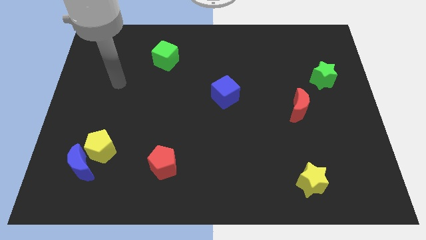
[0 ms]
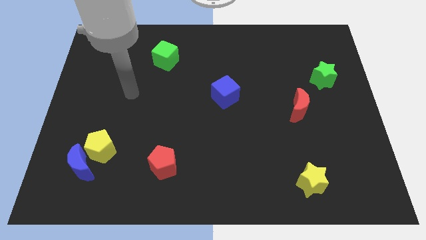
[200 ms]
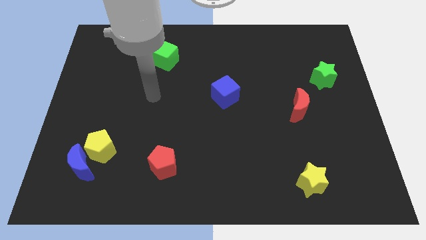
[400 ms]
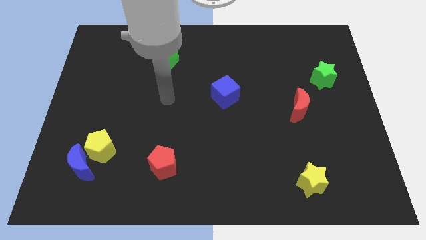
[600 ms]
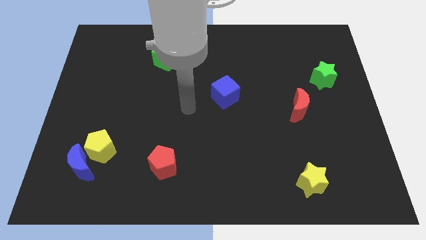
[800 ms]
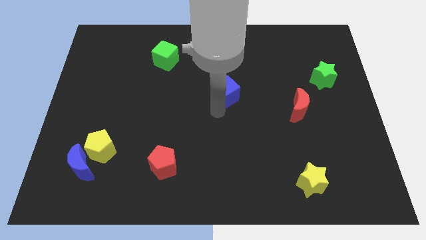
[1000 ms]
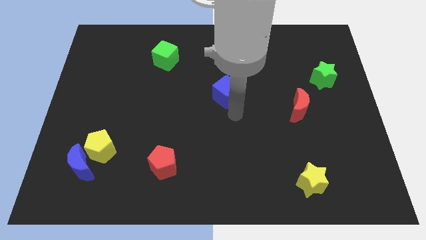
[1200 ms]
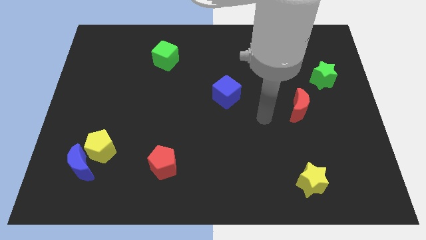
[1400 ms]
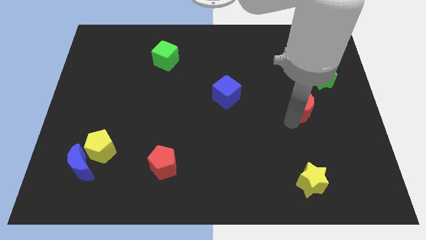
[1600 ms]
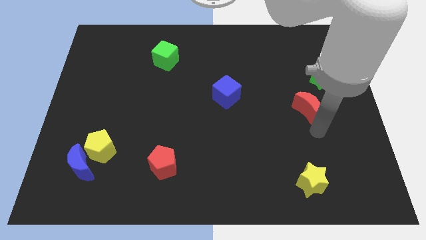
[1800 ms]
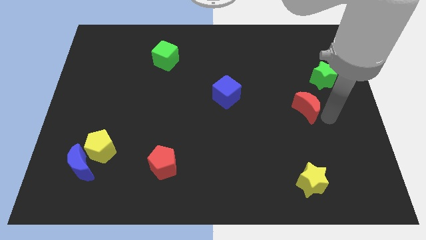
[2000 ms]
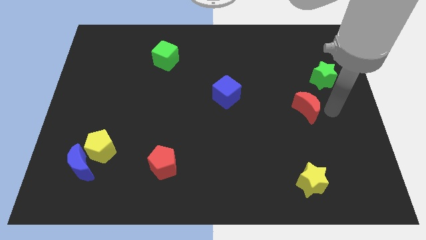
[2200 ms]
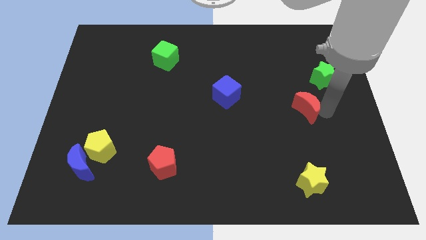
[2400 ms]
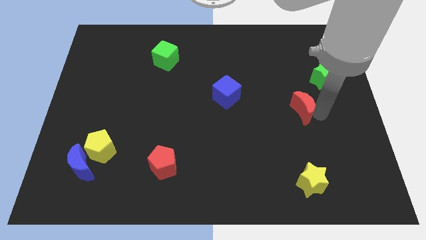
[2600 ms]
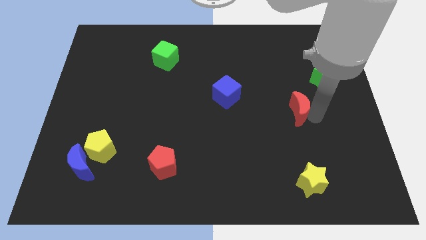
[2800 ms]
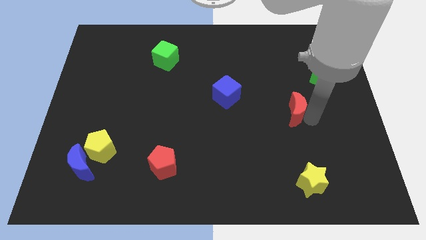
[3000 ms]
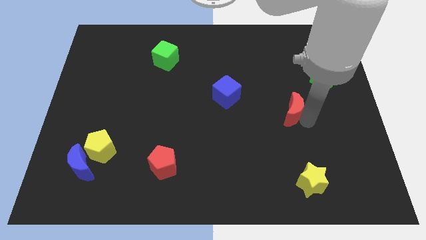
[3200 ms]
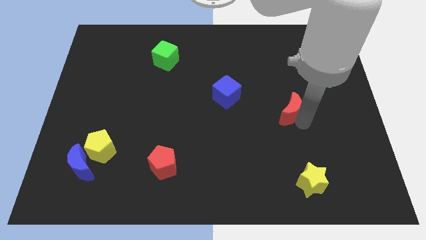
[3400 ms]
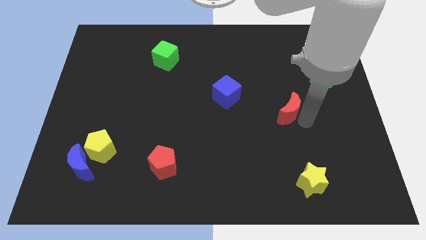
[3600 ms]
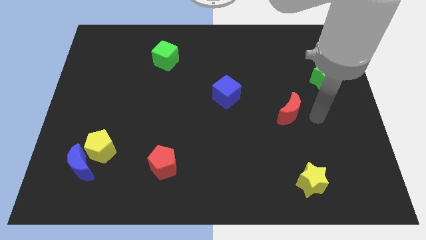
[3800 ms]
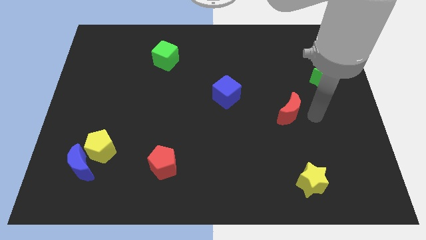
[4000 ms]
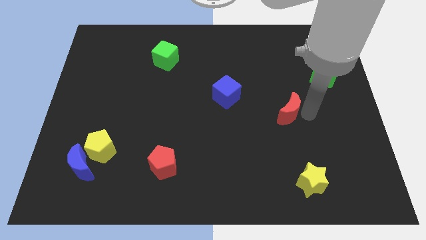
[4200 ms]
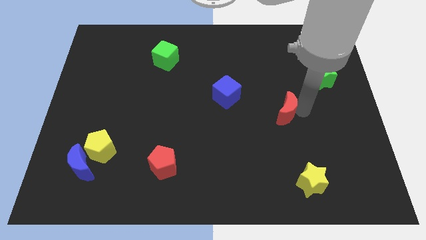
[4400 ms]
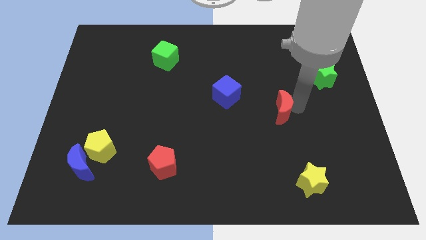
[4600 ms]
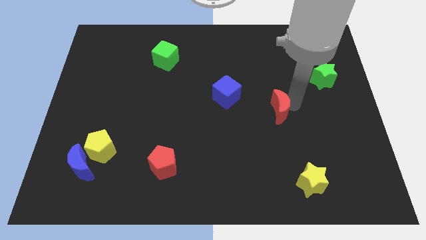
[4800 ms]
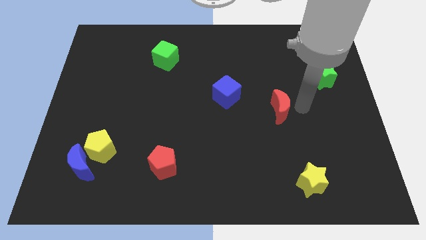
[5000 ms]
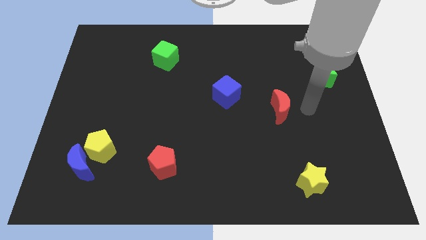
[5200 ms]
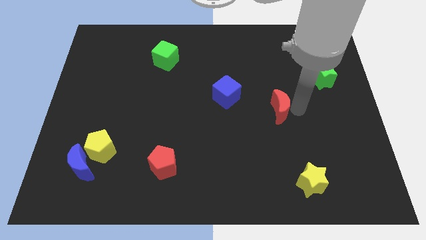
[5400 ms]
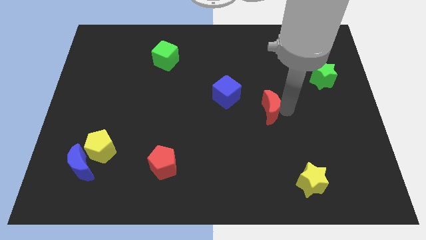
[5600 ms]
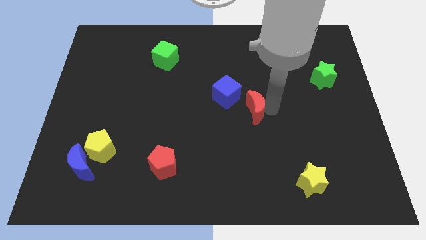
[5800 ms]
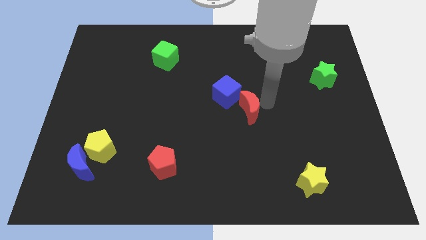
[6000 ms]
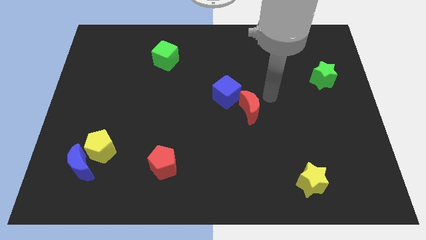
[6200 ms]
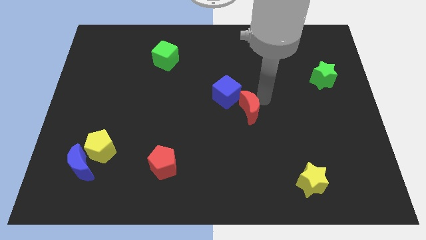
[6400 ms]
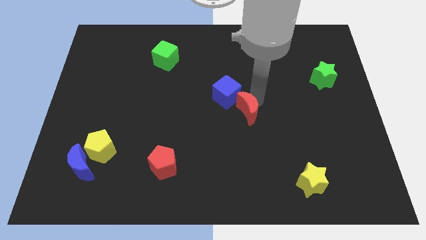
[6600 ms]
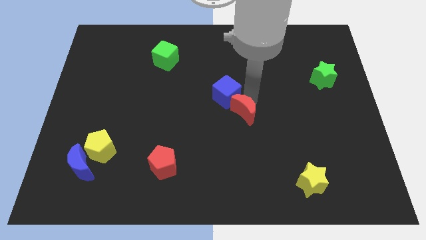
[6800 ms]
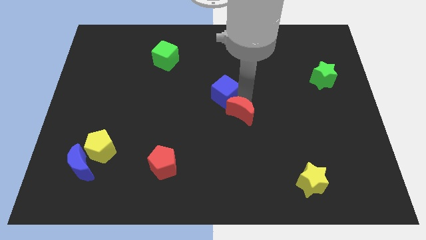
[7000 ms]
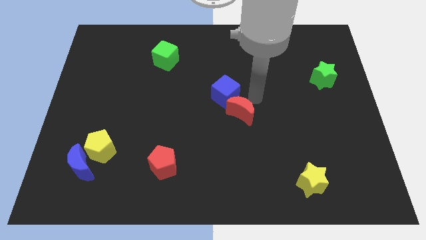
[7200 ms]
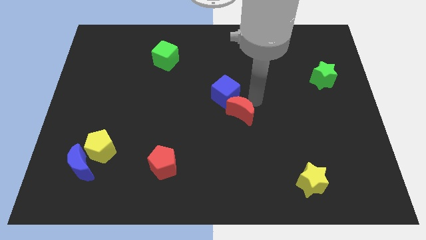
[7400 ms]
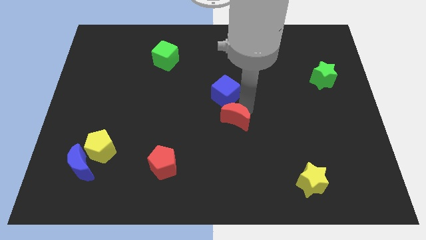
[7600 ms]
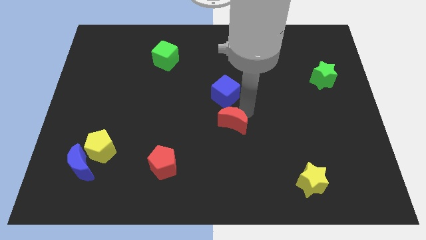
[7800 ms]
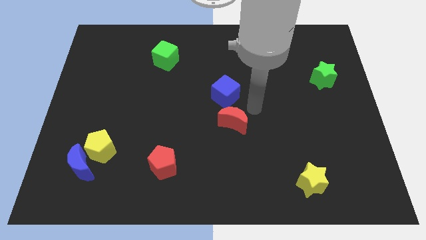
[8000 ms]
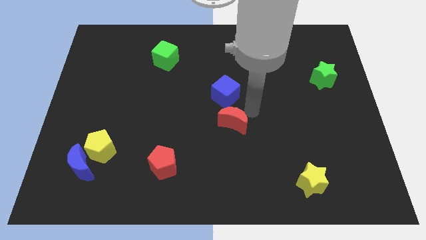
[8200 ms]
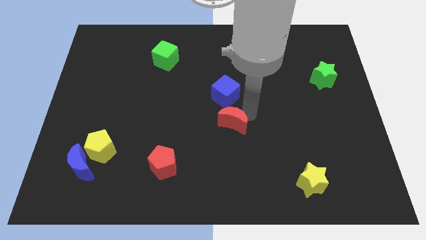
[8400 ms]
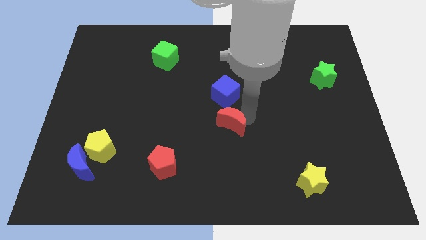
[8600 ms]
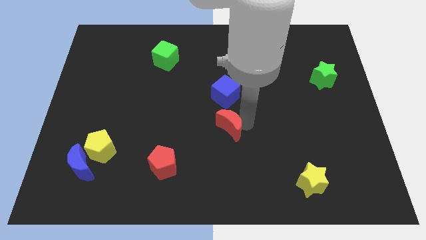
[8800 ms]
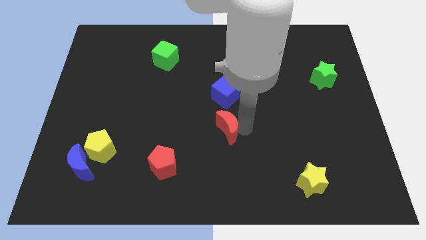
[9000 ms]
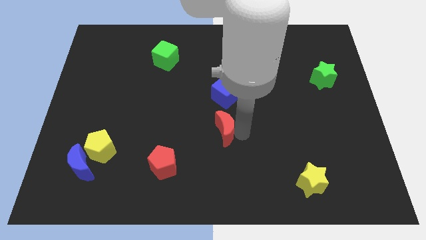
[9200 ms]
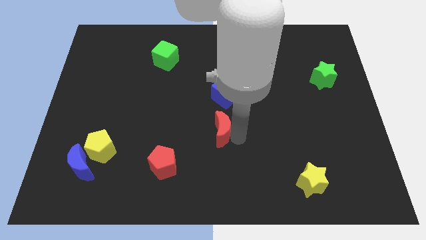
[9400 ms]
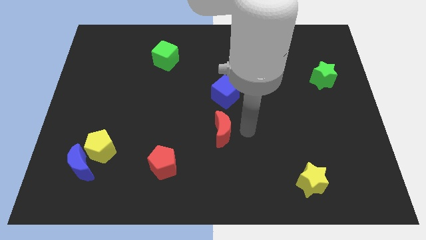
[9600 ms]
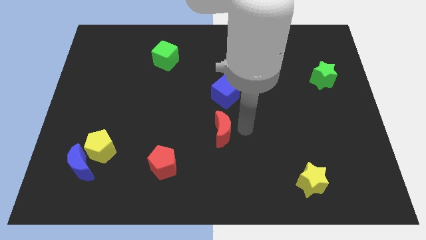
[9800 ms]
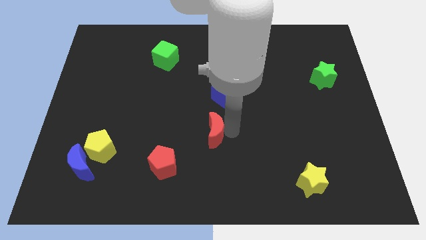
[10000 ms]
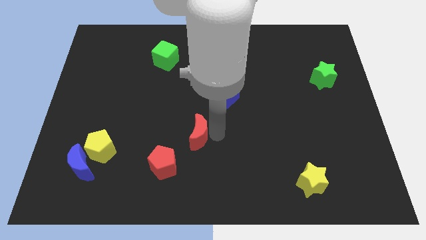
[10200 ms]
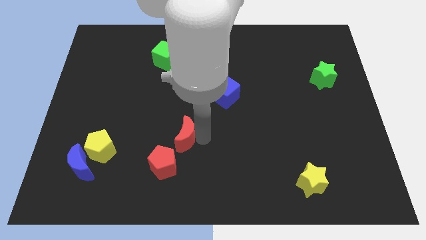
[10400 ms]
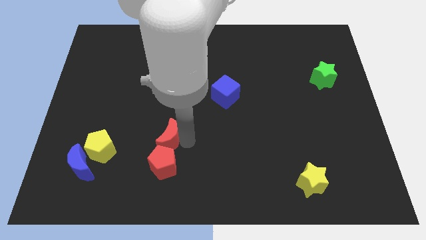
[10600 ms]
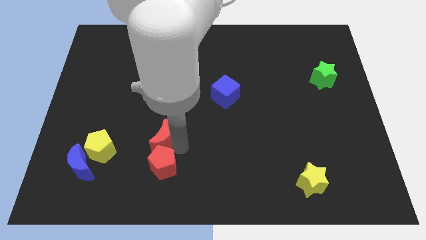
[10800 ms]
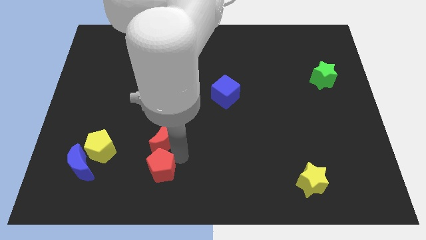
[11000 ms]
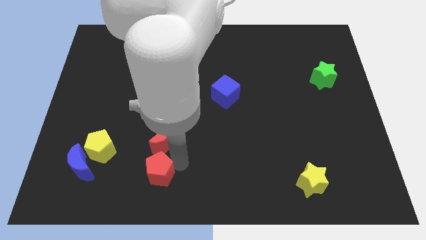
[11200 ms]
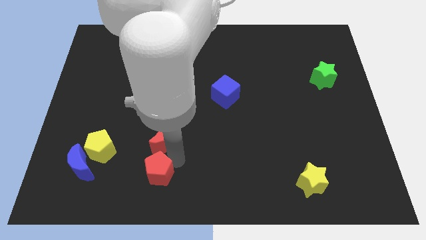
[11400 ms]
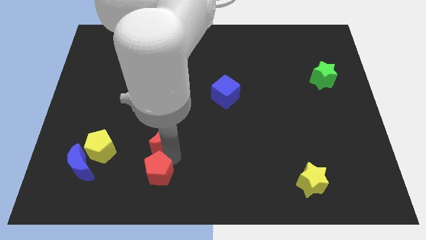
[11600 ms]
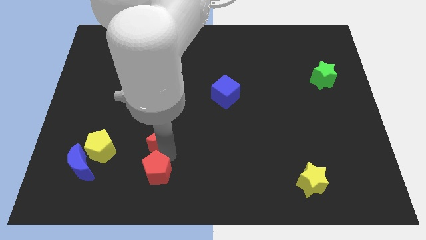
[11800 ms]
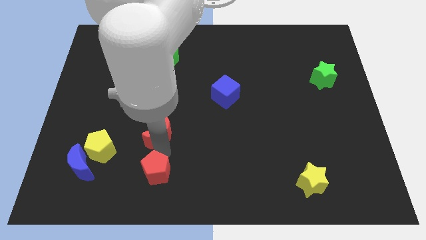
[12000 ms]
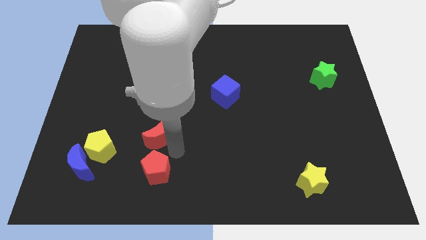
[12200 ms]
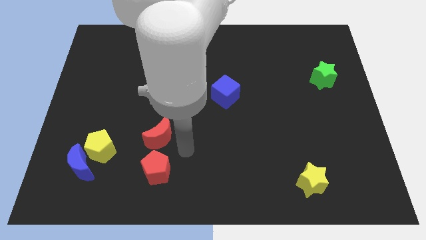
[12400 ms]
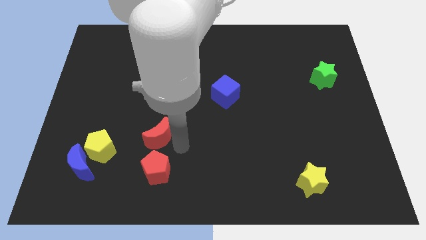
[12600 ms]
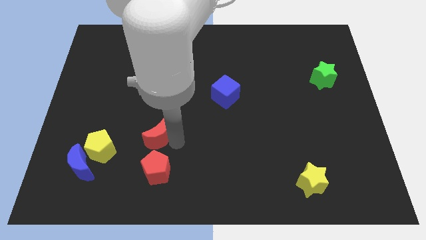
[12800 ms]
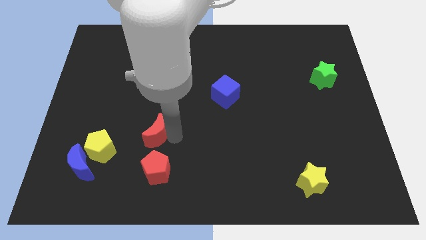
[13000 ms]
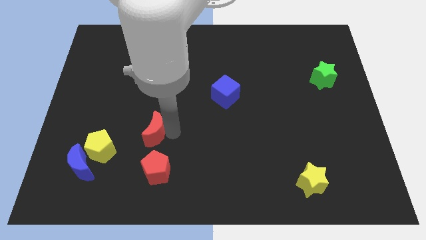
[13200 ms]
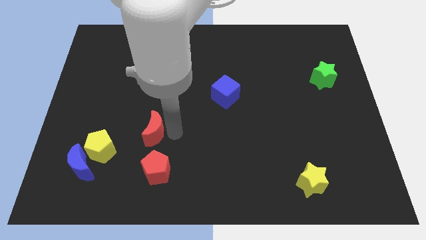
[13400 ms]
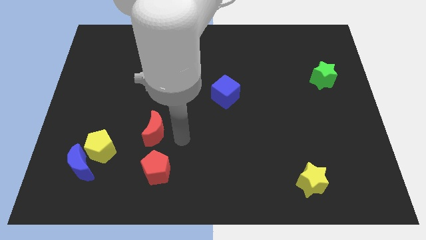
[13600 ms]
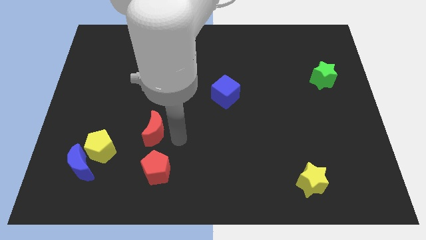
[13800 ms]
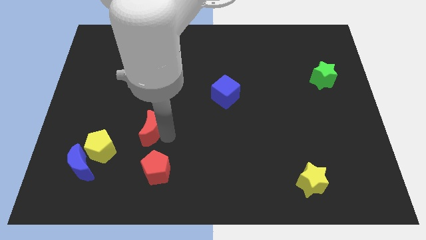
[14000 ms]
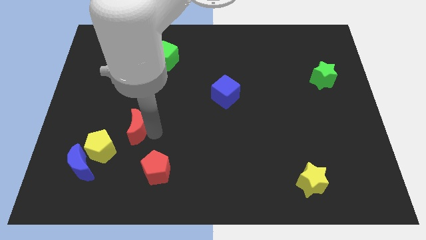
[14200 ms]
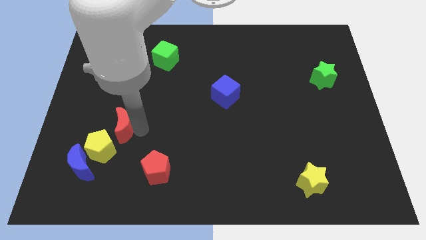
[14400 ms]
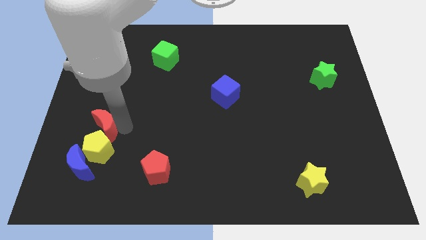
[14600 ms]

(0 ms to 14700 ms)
put the red moon to the top of the blue moon
